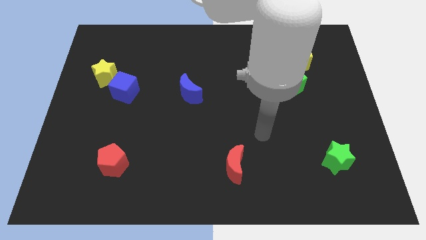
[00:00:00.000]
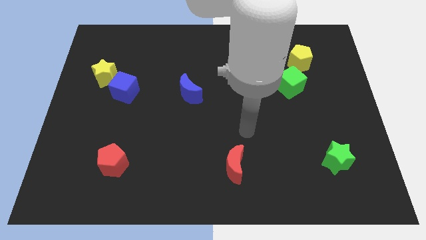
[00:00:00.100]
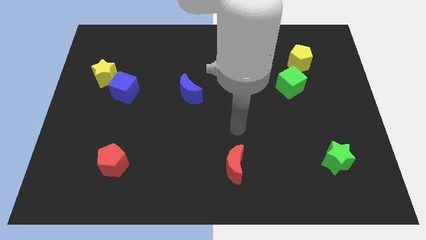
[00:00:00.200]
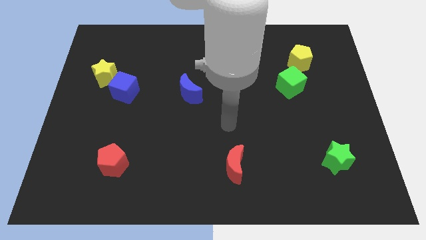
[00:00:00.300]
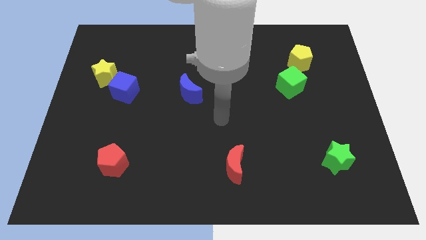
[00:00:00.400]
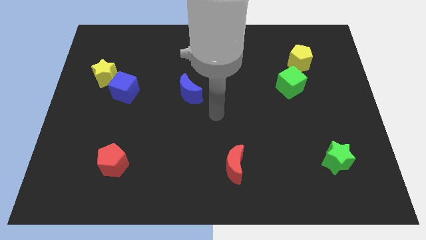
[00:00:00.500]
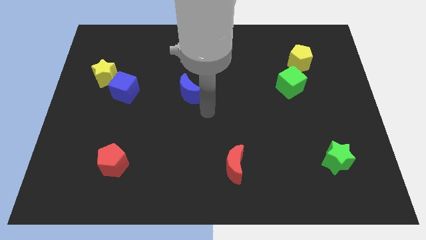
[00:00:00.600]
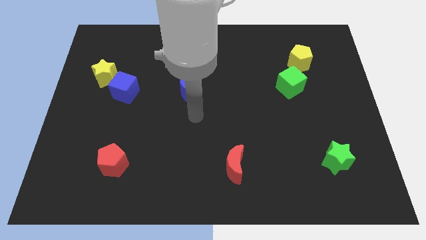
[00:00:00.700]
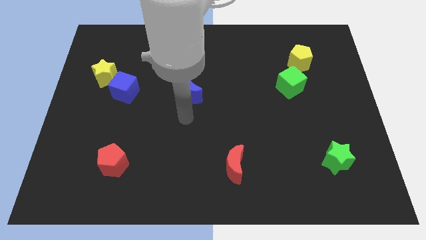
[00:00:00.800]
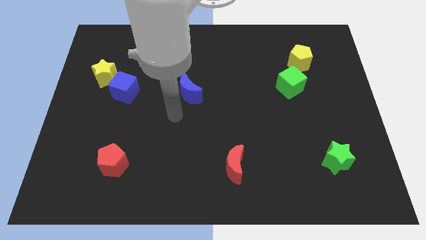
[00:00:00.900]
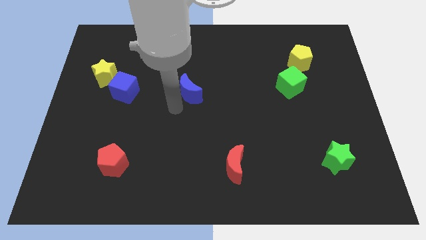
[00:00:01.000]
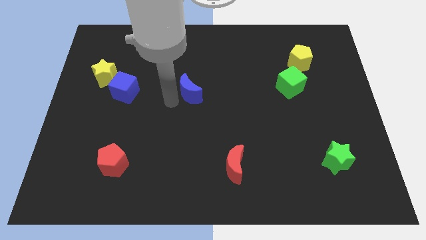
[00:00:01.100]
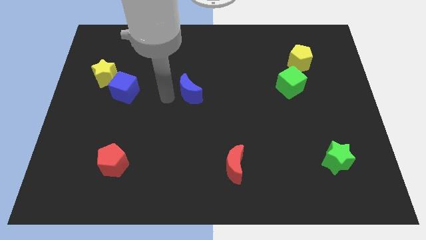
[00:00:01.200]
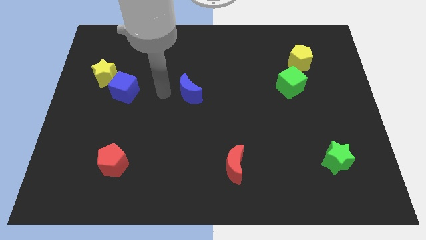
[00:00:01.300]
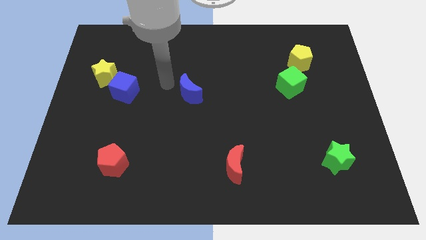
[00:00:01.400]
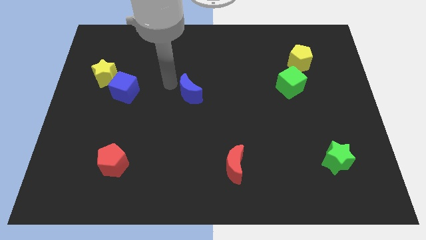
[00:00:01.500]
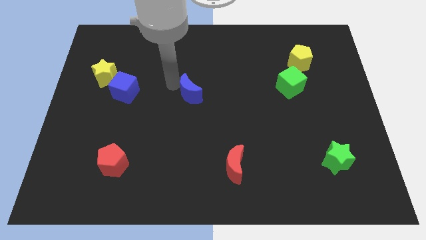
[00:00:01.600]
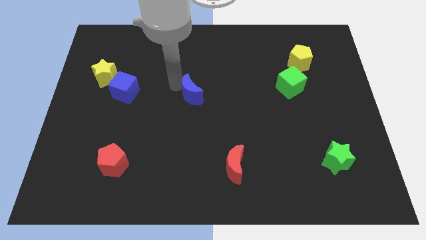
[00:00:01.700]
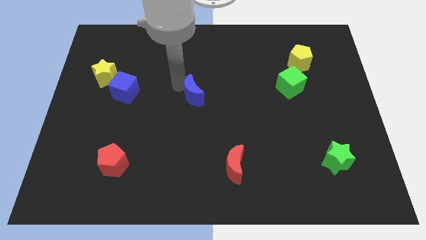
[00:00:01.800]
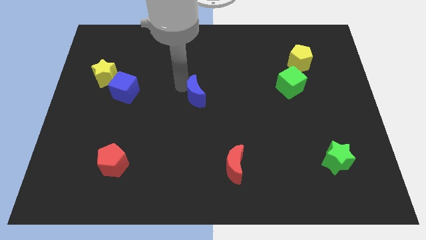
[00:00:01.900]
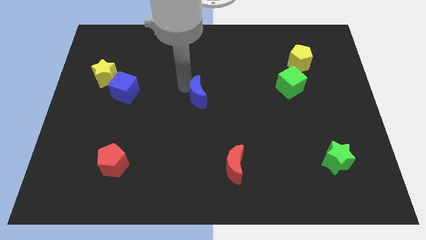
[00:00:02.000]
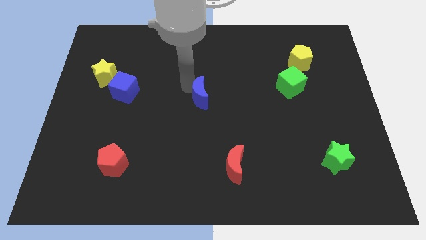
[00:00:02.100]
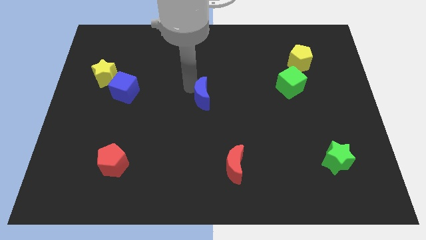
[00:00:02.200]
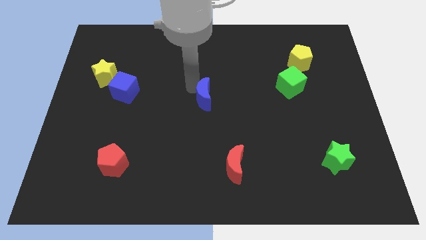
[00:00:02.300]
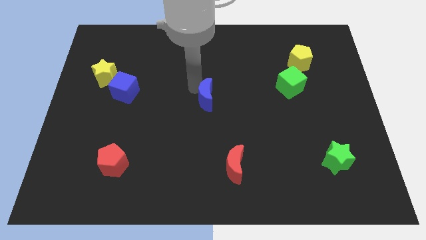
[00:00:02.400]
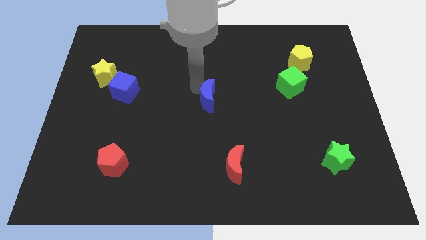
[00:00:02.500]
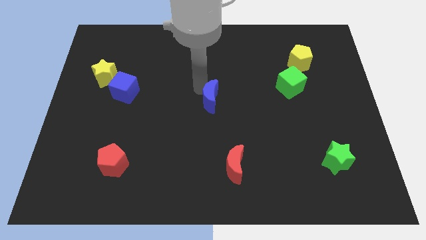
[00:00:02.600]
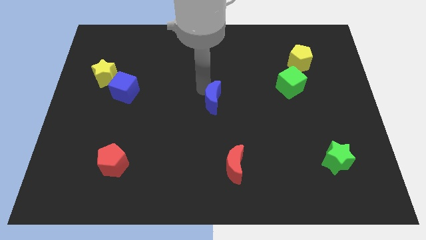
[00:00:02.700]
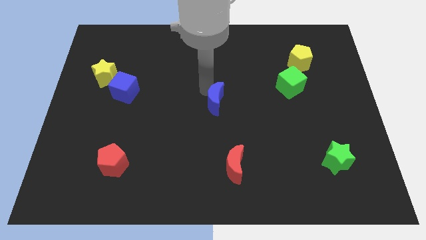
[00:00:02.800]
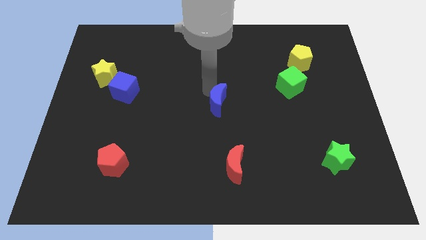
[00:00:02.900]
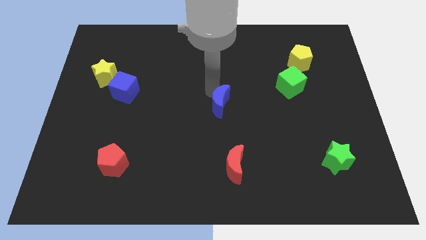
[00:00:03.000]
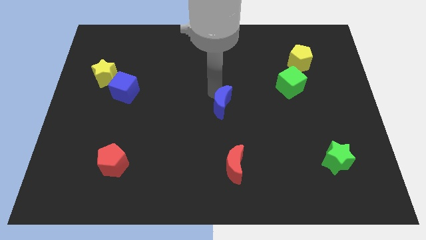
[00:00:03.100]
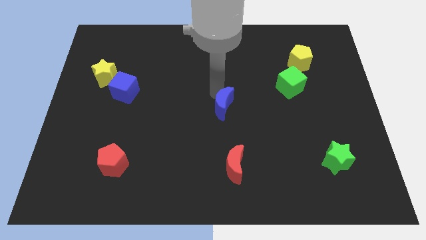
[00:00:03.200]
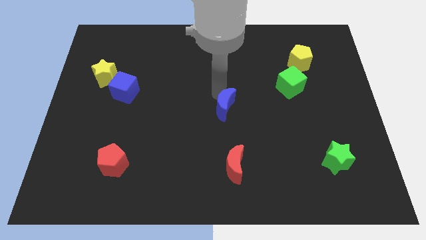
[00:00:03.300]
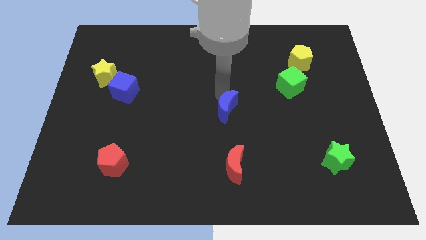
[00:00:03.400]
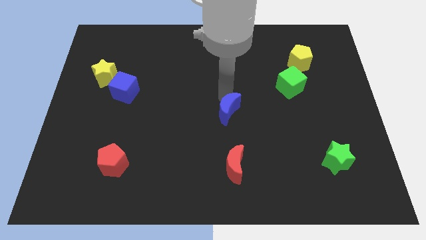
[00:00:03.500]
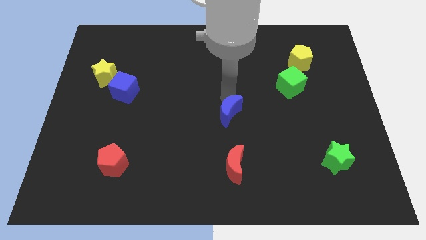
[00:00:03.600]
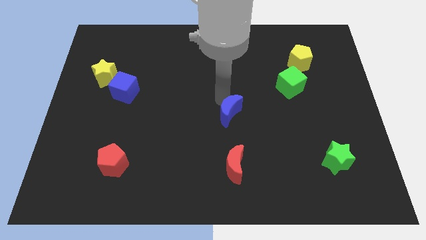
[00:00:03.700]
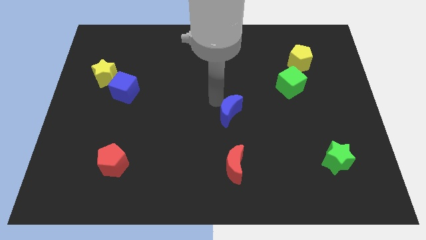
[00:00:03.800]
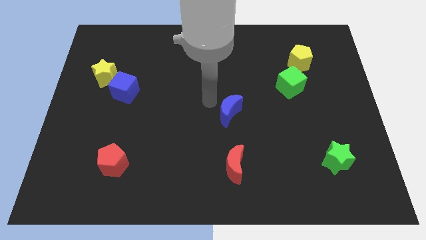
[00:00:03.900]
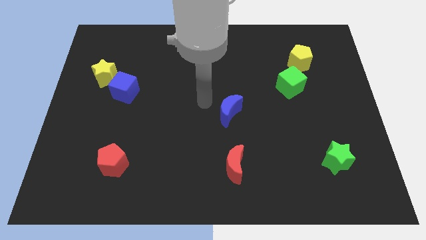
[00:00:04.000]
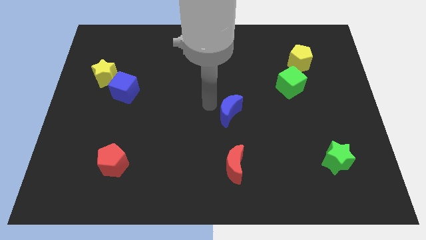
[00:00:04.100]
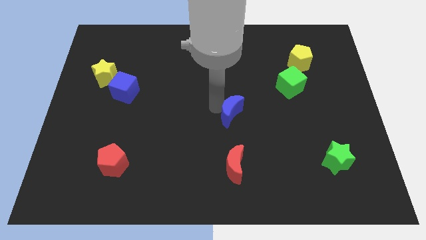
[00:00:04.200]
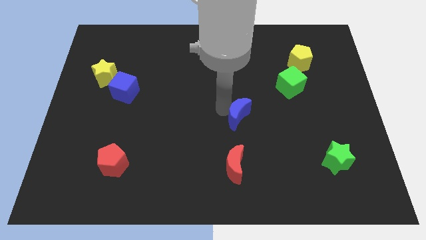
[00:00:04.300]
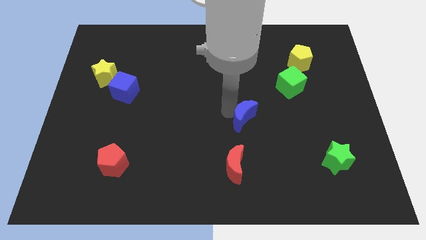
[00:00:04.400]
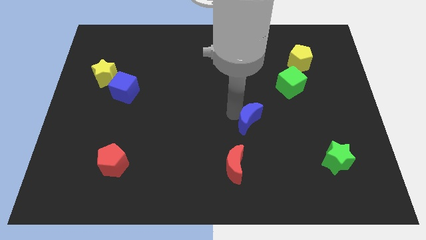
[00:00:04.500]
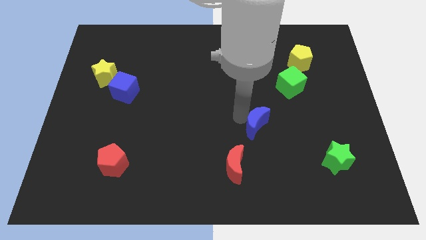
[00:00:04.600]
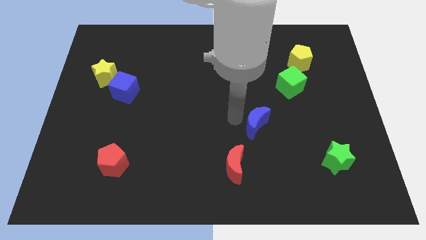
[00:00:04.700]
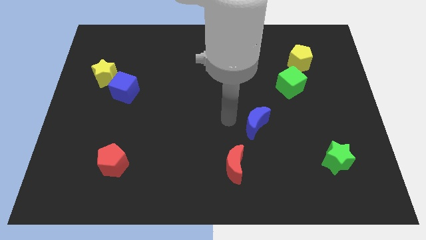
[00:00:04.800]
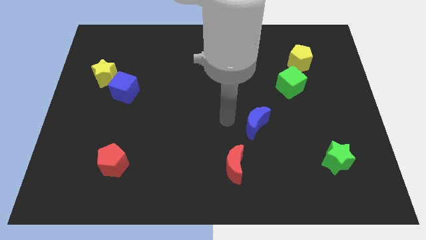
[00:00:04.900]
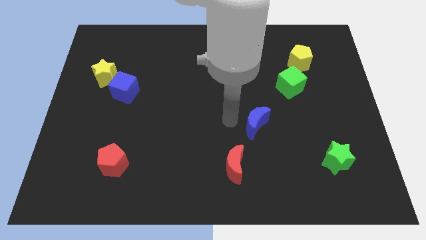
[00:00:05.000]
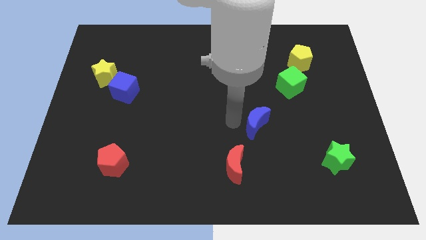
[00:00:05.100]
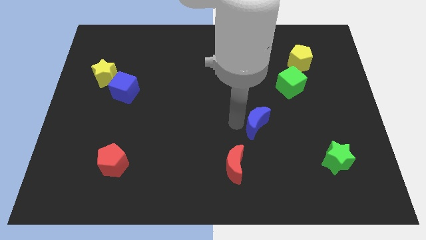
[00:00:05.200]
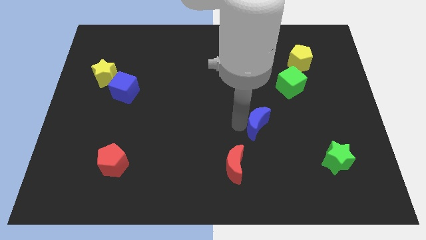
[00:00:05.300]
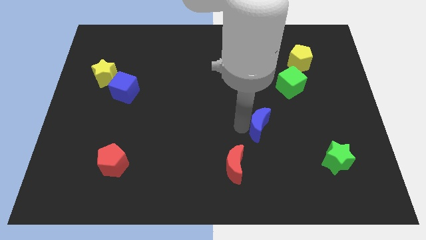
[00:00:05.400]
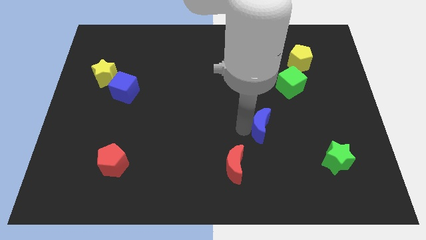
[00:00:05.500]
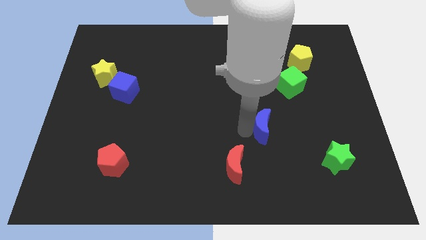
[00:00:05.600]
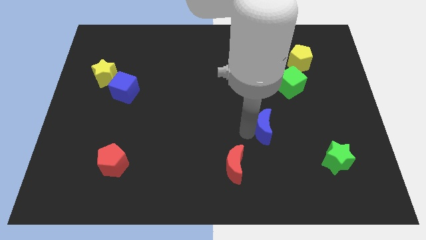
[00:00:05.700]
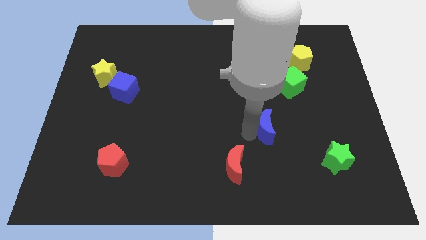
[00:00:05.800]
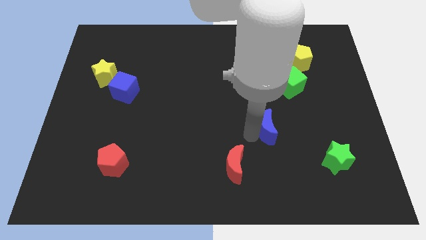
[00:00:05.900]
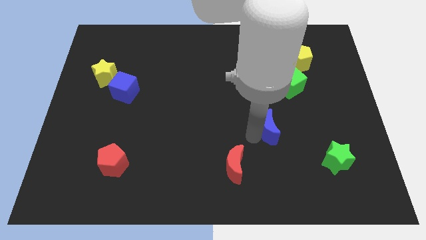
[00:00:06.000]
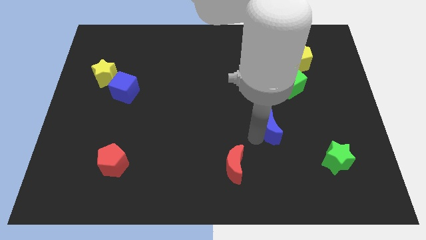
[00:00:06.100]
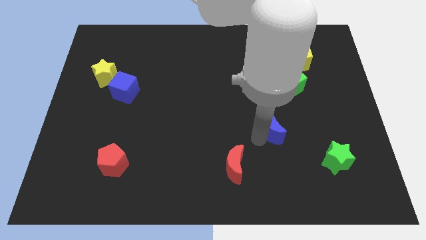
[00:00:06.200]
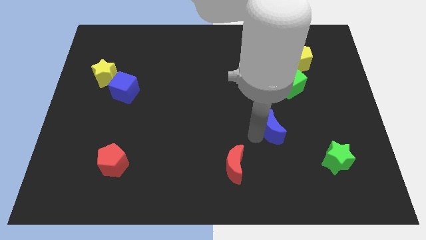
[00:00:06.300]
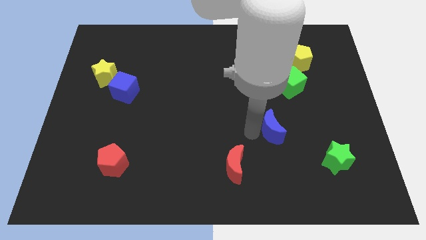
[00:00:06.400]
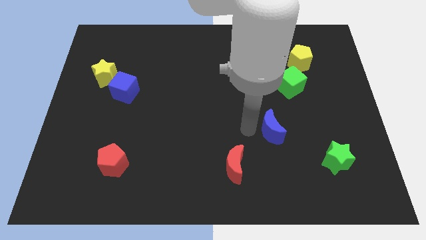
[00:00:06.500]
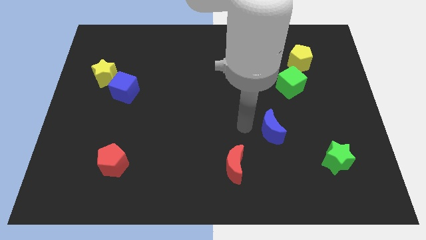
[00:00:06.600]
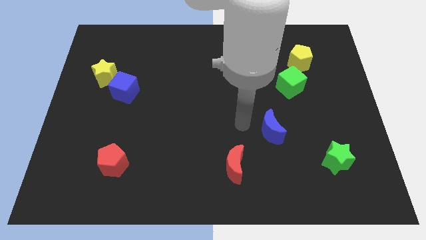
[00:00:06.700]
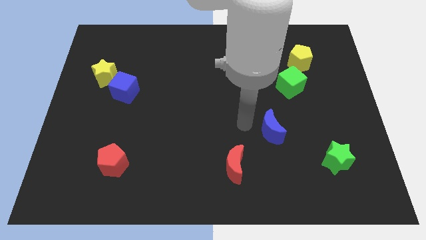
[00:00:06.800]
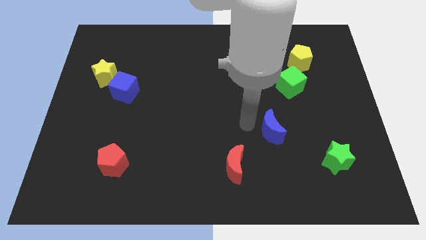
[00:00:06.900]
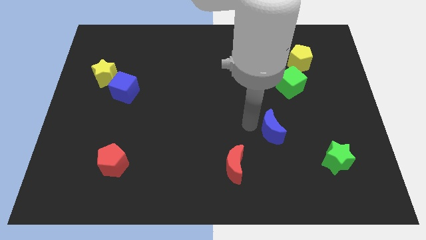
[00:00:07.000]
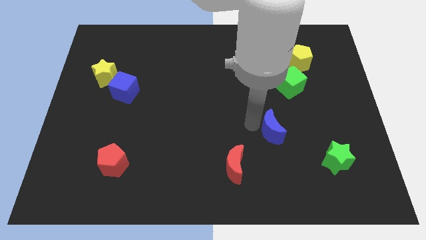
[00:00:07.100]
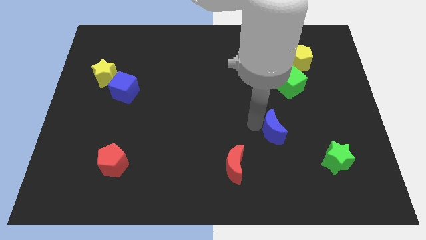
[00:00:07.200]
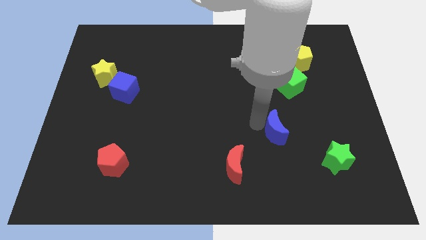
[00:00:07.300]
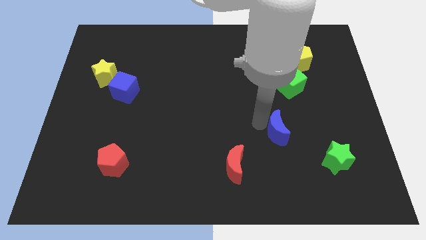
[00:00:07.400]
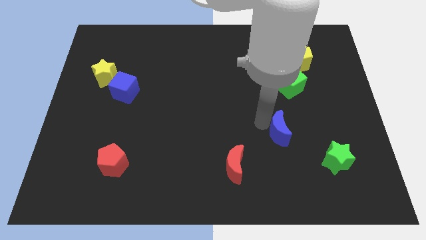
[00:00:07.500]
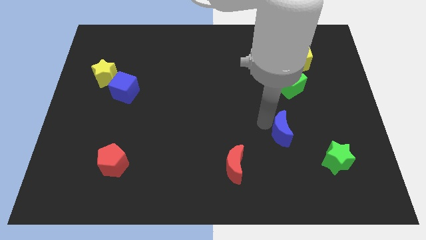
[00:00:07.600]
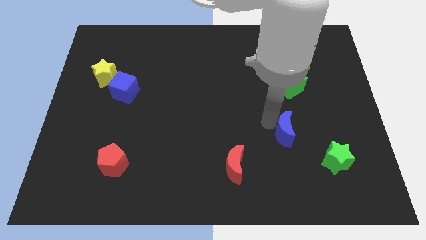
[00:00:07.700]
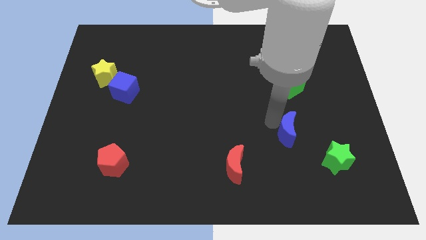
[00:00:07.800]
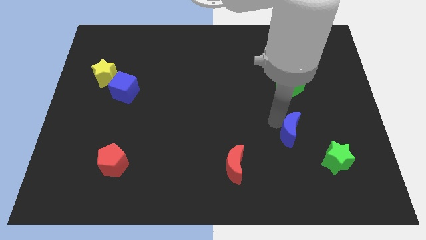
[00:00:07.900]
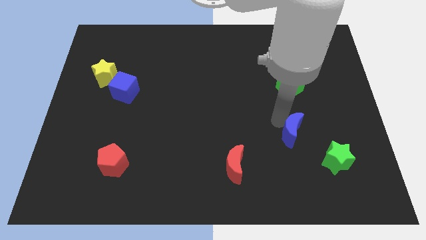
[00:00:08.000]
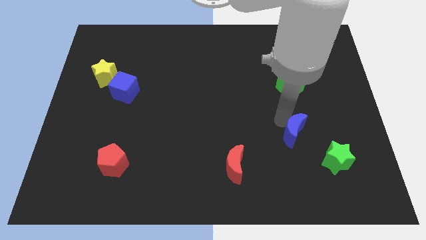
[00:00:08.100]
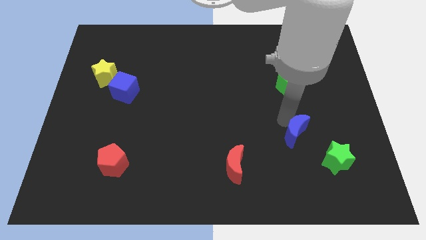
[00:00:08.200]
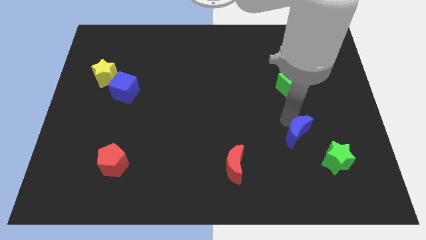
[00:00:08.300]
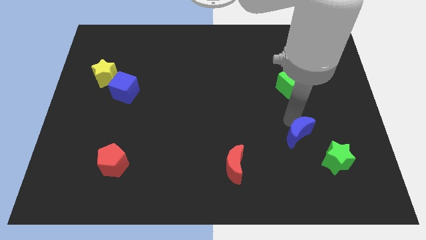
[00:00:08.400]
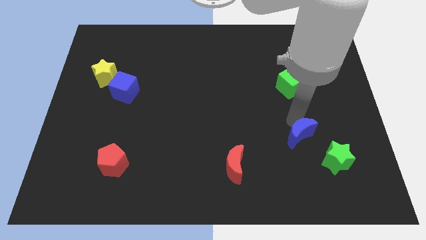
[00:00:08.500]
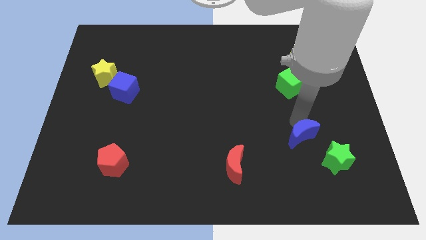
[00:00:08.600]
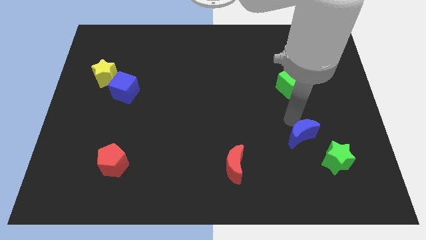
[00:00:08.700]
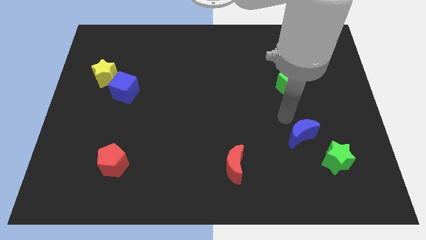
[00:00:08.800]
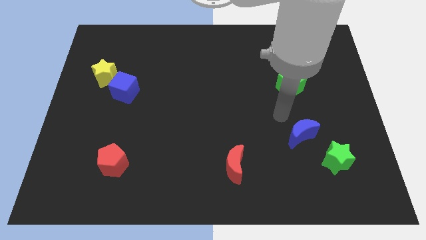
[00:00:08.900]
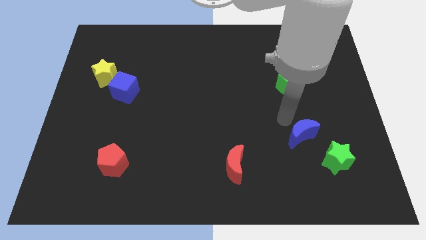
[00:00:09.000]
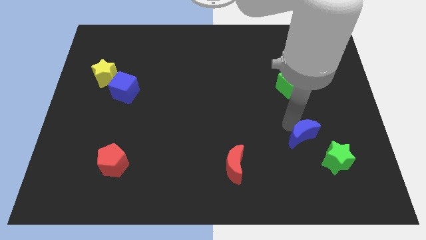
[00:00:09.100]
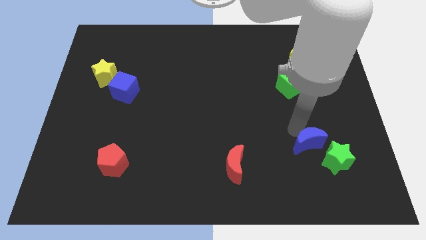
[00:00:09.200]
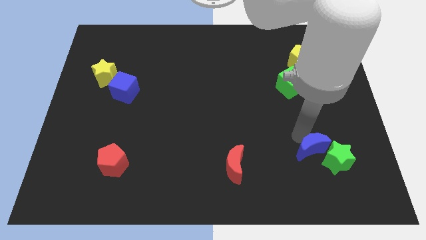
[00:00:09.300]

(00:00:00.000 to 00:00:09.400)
move the blue moon close to the green star
